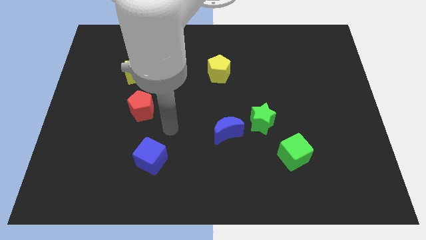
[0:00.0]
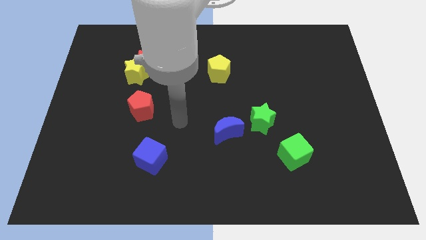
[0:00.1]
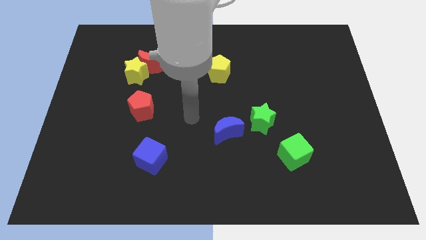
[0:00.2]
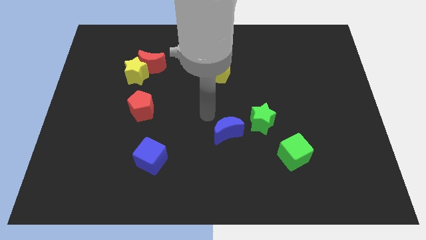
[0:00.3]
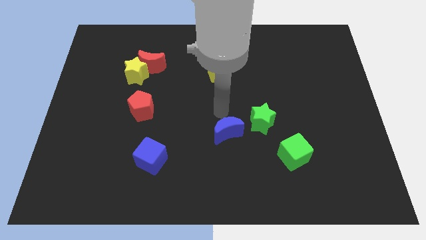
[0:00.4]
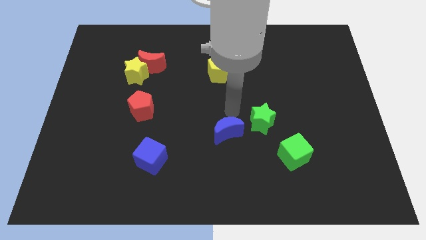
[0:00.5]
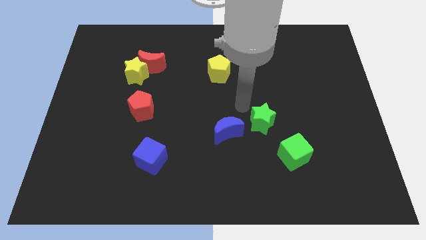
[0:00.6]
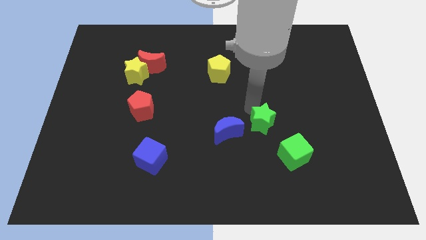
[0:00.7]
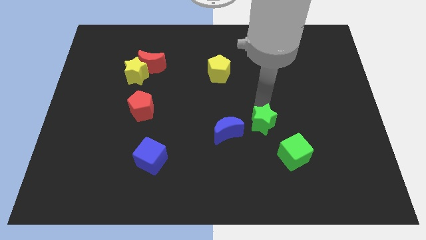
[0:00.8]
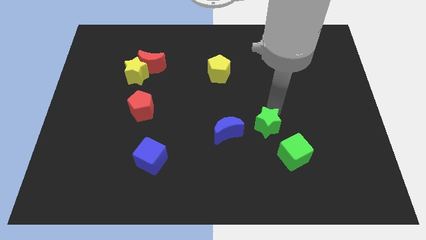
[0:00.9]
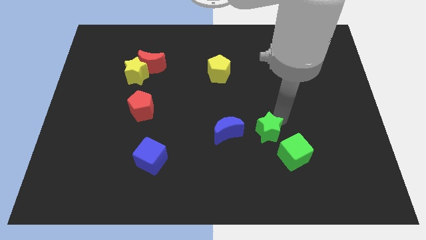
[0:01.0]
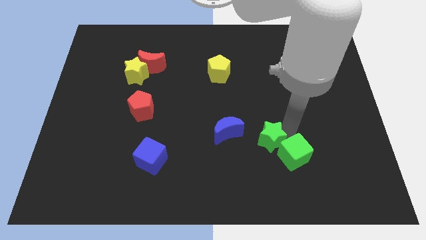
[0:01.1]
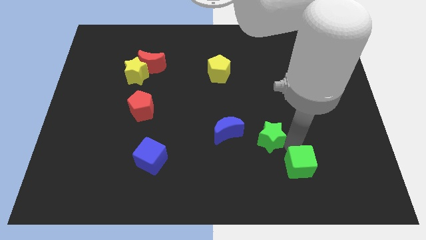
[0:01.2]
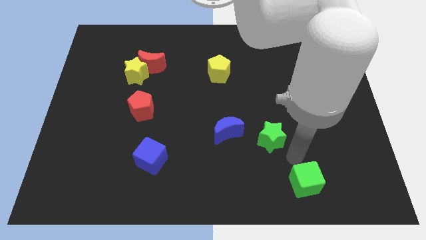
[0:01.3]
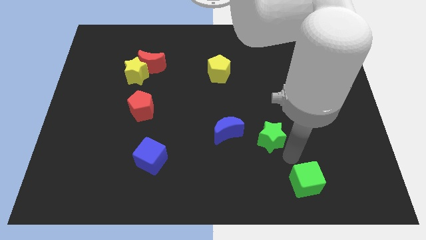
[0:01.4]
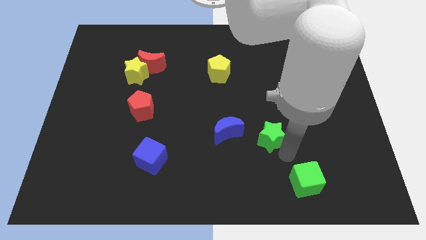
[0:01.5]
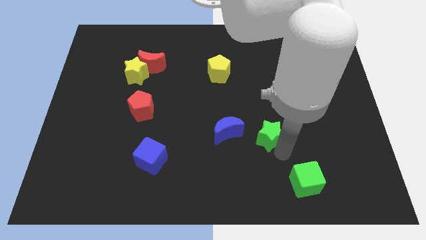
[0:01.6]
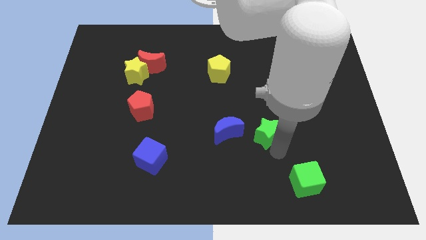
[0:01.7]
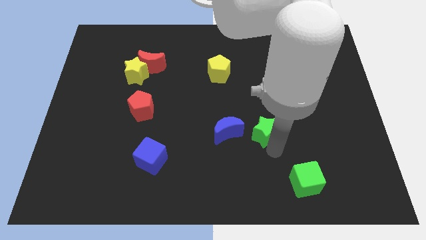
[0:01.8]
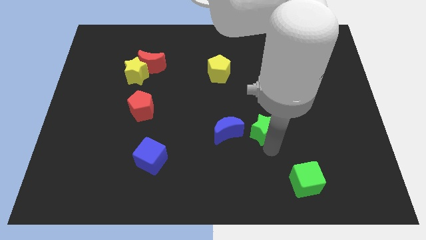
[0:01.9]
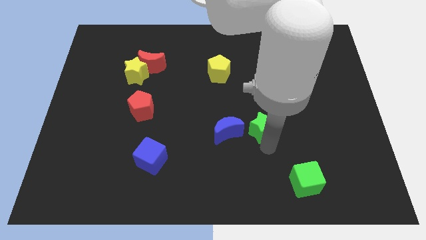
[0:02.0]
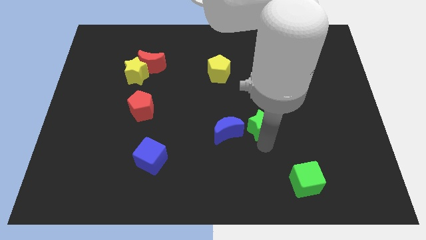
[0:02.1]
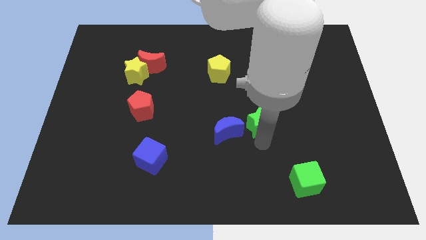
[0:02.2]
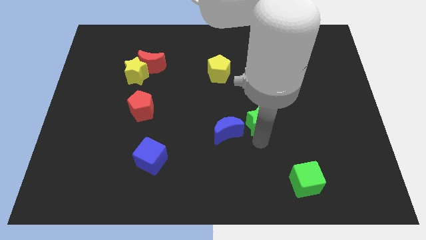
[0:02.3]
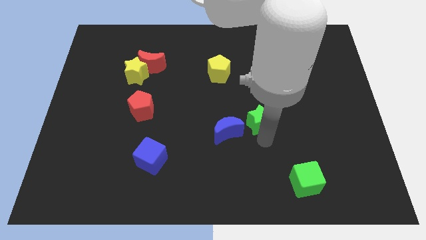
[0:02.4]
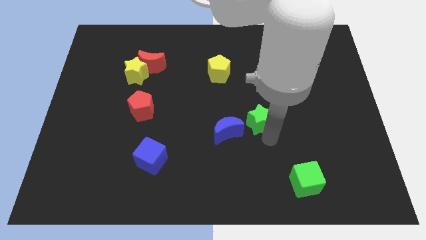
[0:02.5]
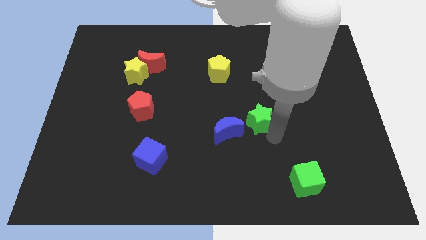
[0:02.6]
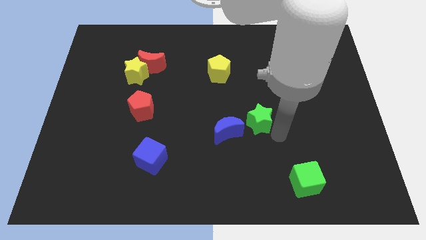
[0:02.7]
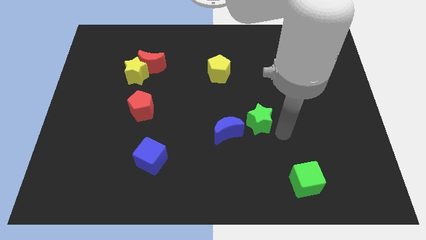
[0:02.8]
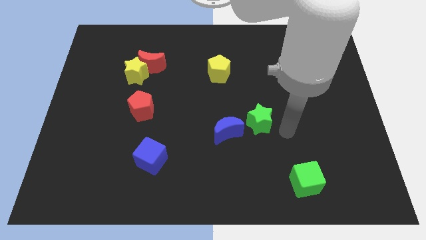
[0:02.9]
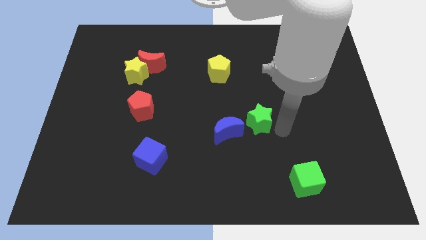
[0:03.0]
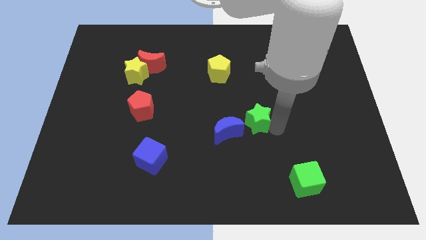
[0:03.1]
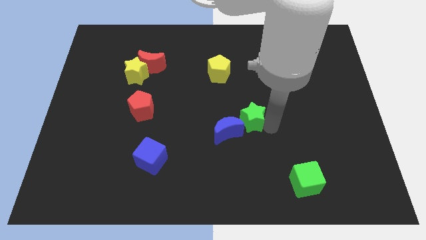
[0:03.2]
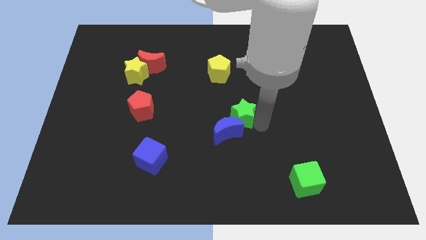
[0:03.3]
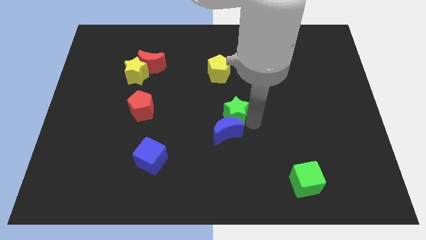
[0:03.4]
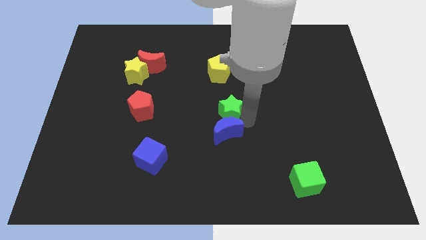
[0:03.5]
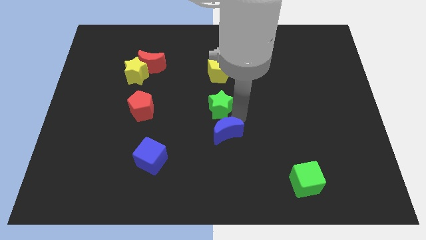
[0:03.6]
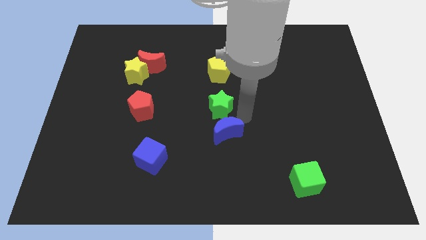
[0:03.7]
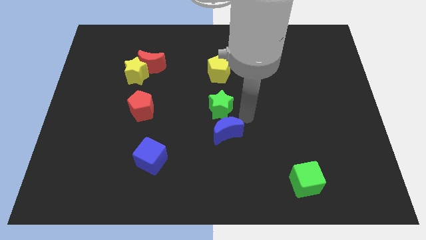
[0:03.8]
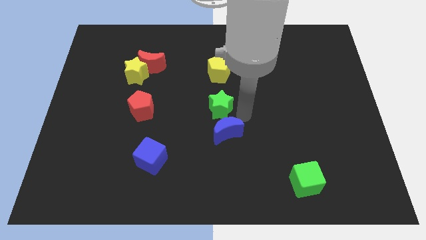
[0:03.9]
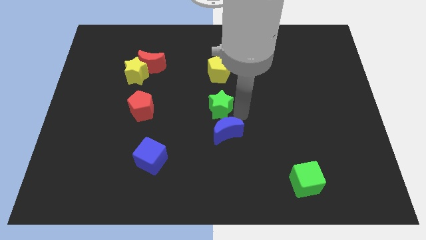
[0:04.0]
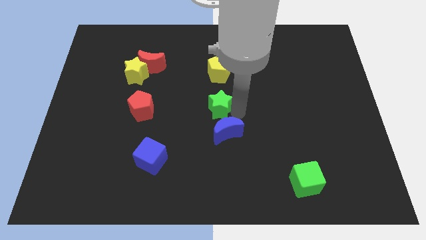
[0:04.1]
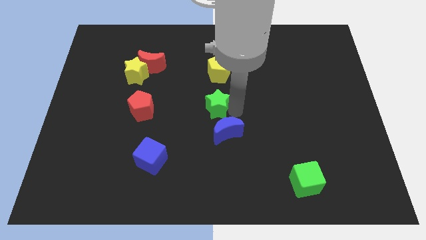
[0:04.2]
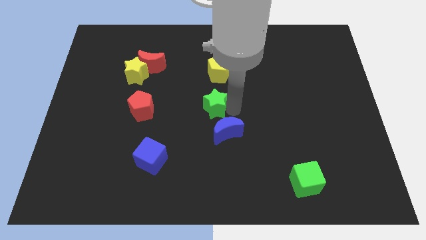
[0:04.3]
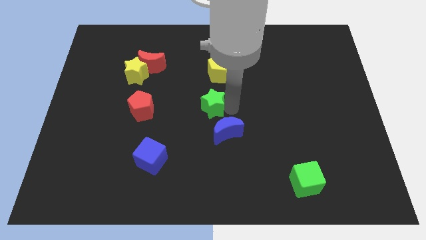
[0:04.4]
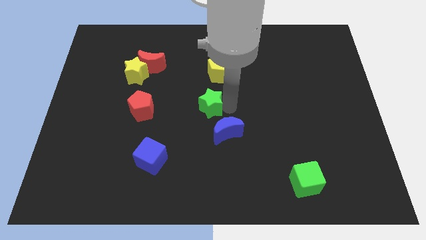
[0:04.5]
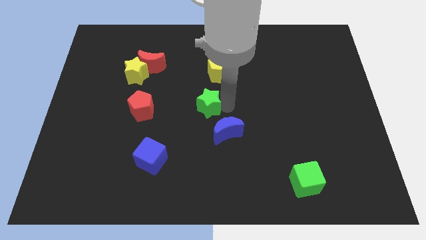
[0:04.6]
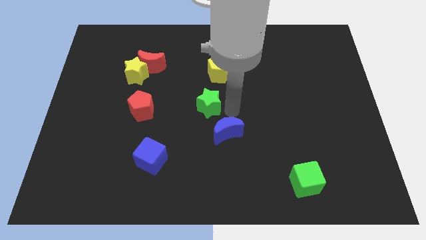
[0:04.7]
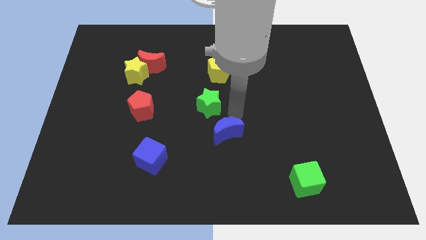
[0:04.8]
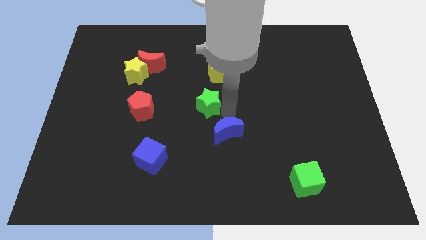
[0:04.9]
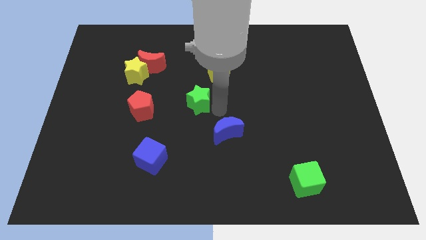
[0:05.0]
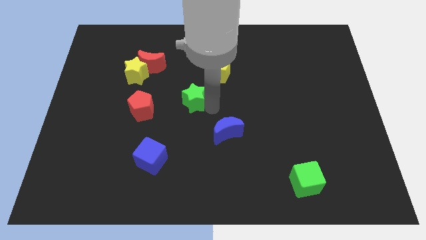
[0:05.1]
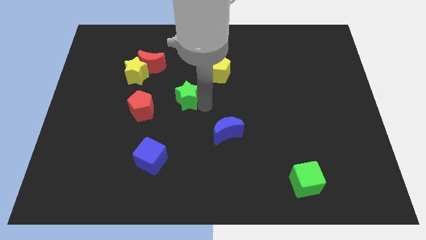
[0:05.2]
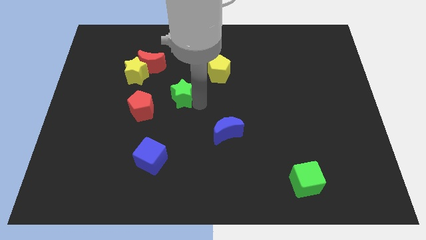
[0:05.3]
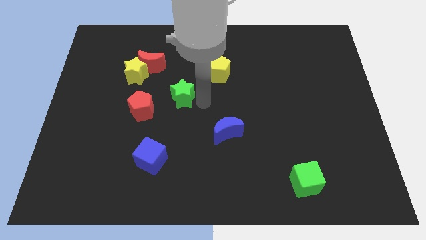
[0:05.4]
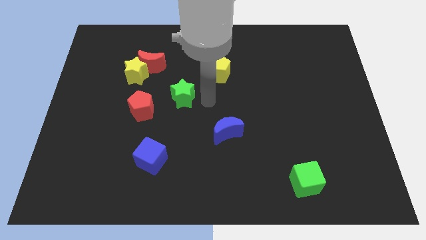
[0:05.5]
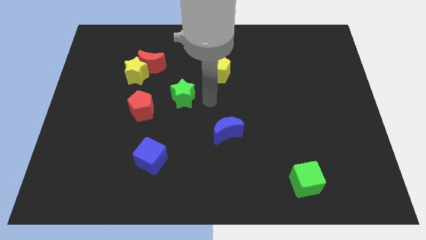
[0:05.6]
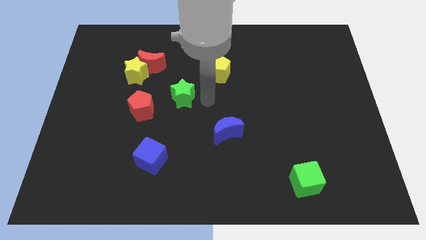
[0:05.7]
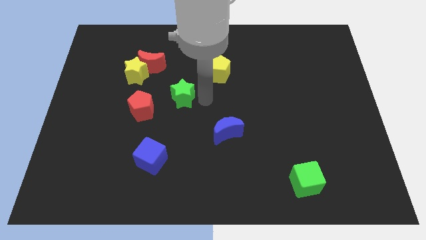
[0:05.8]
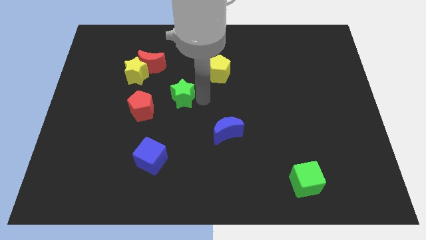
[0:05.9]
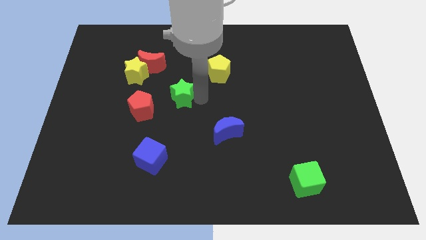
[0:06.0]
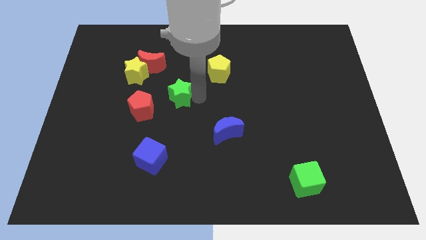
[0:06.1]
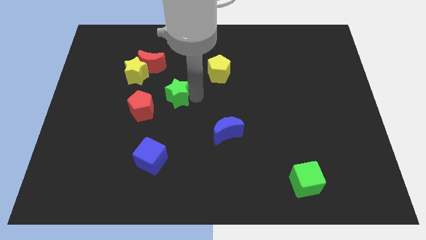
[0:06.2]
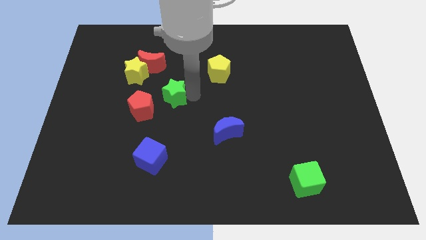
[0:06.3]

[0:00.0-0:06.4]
put the green star to the bottom right side of the yellow star
